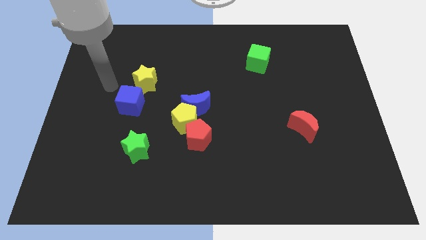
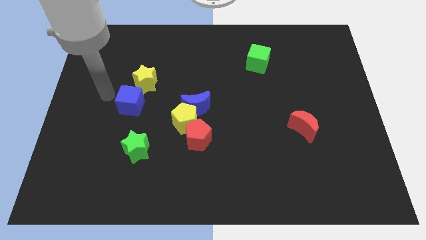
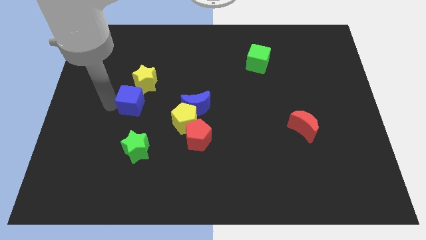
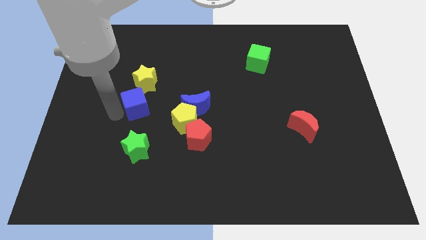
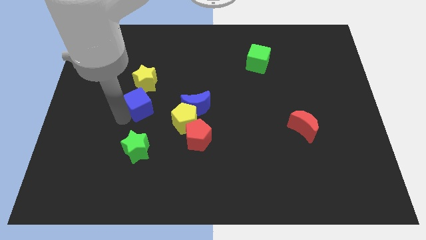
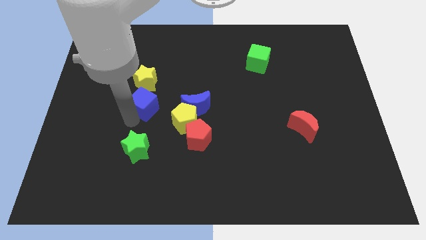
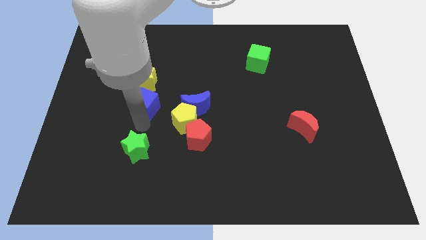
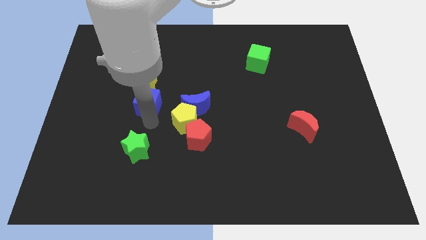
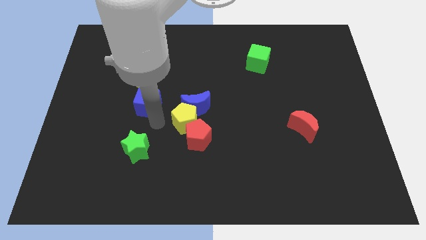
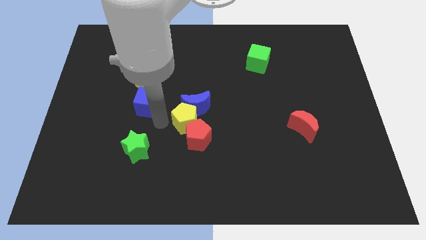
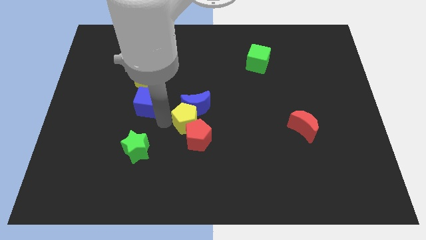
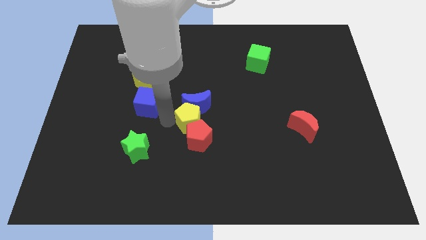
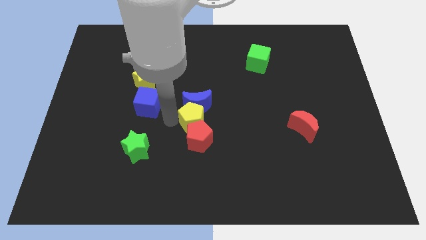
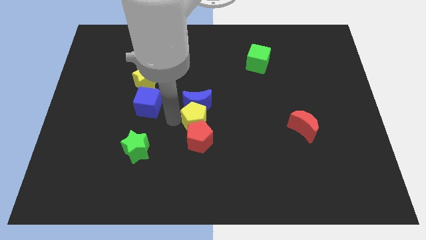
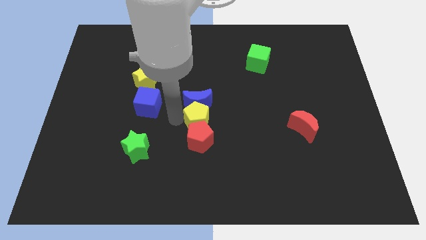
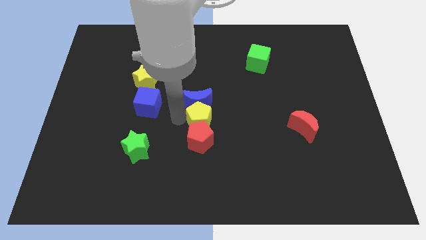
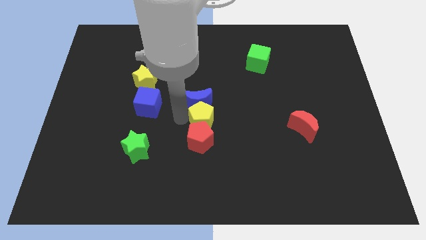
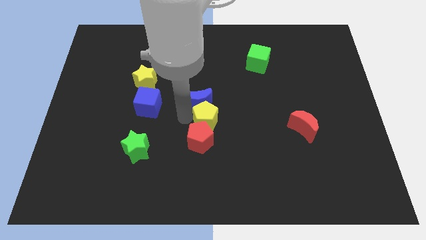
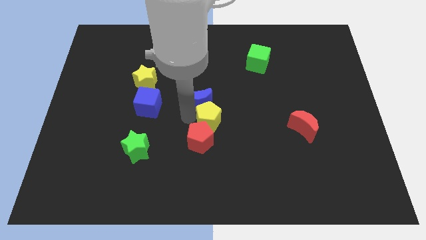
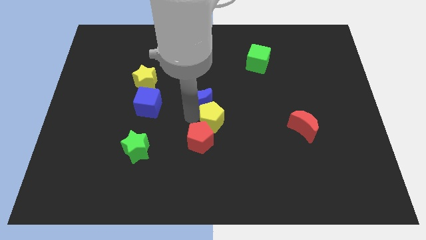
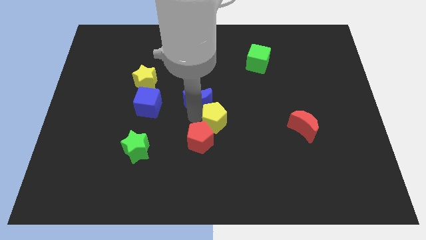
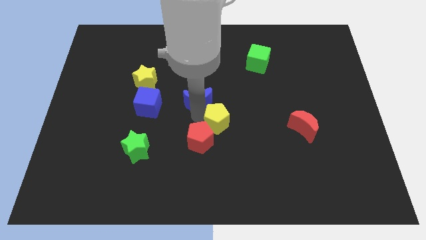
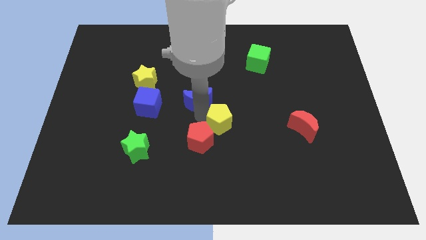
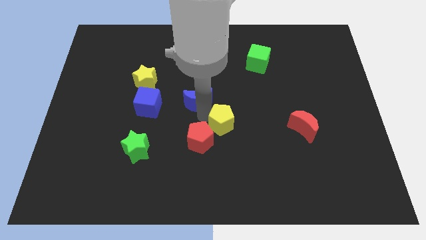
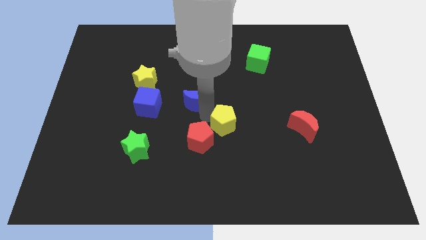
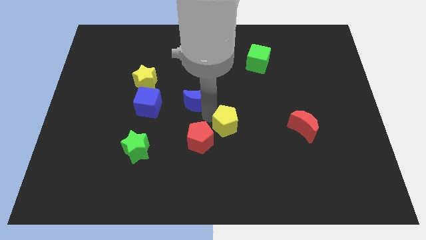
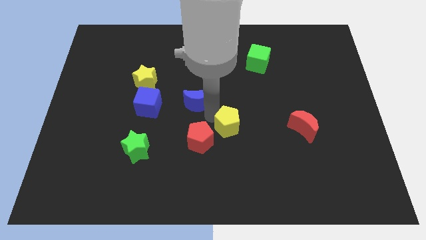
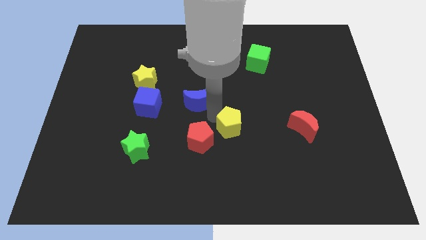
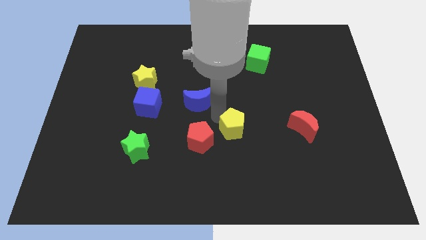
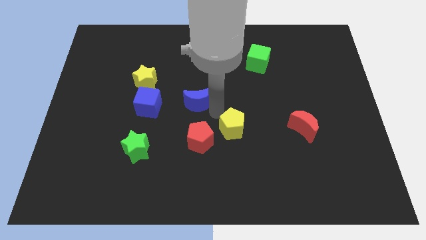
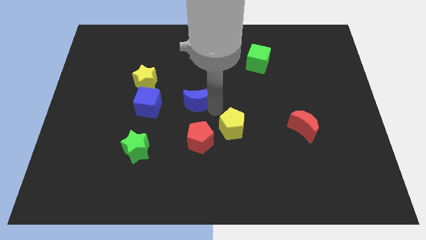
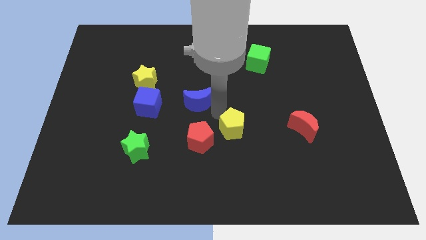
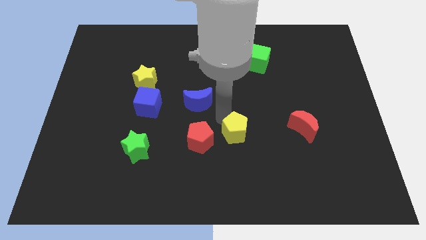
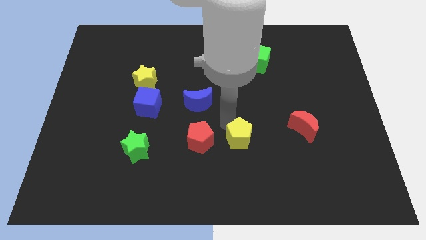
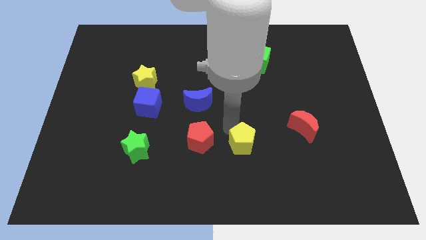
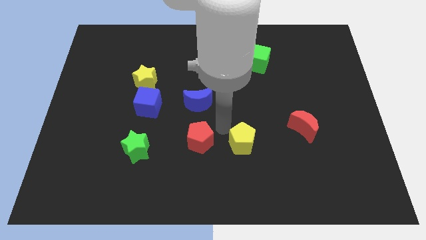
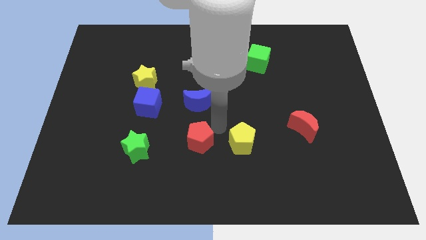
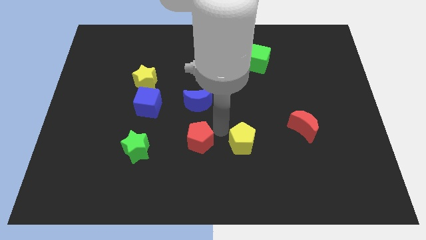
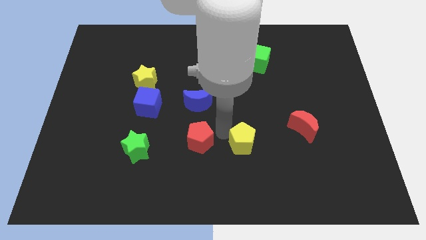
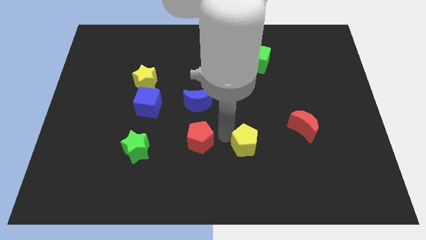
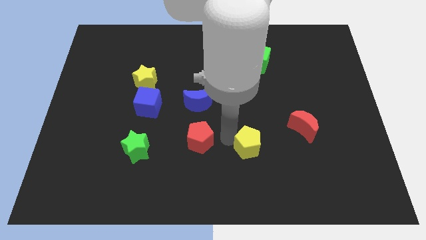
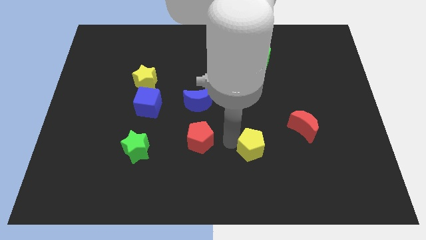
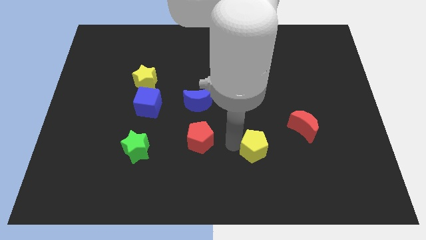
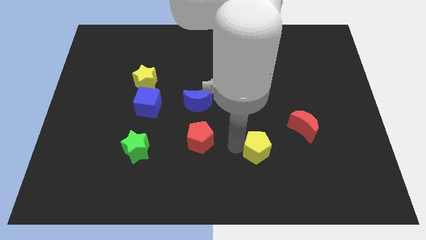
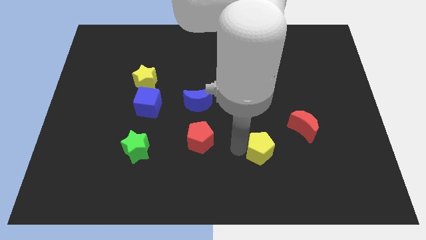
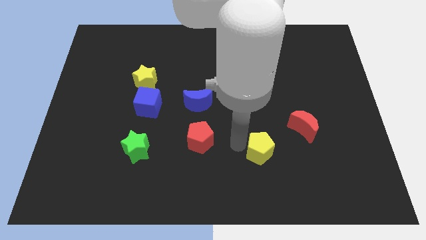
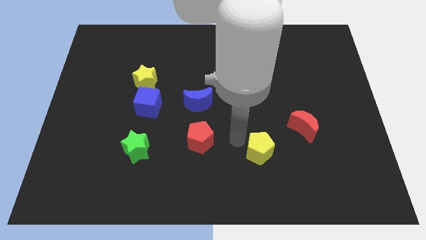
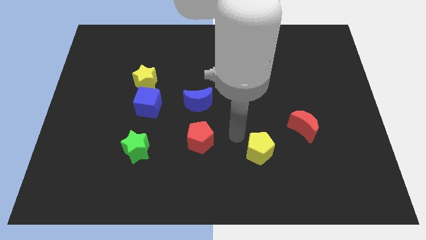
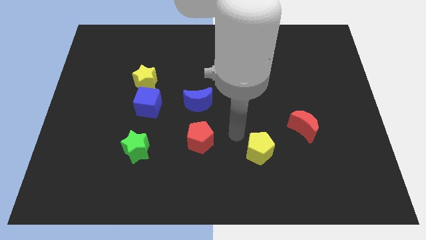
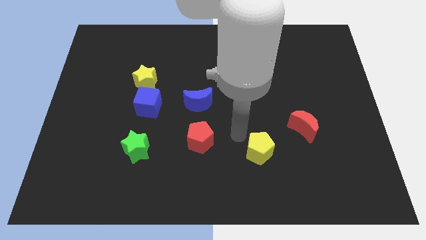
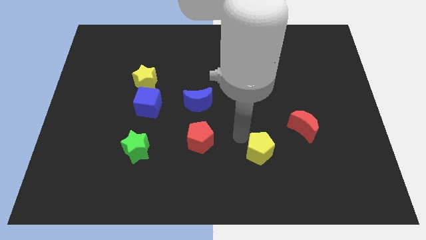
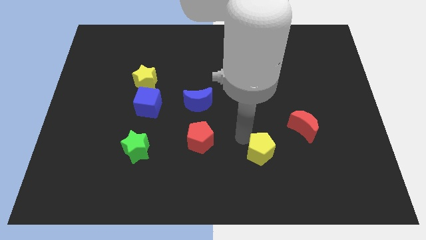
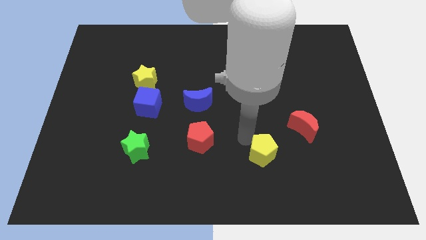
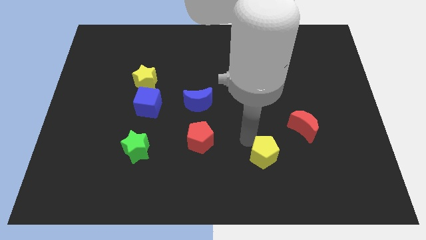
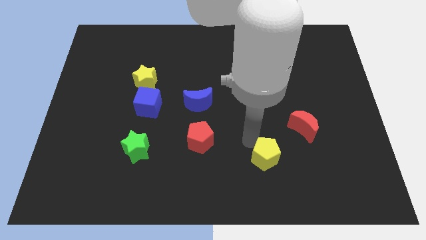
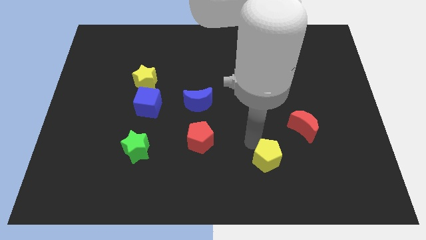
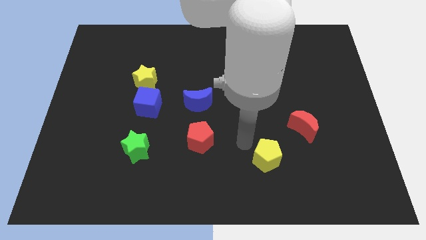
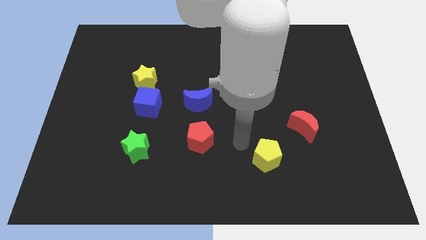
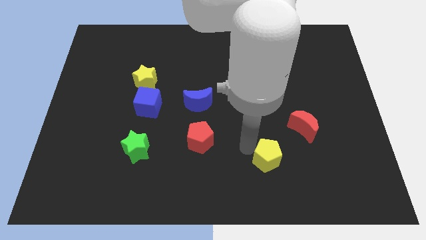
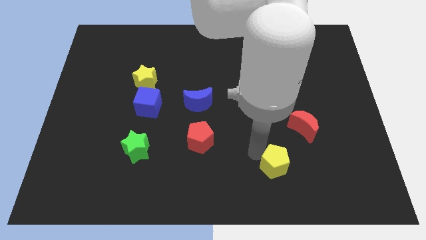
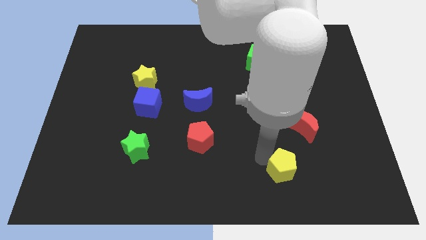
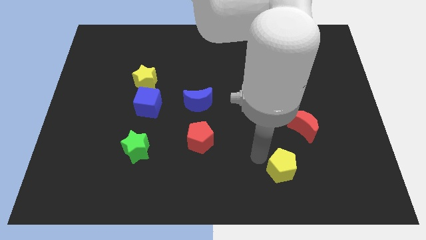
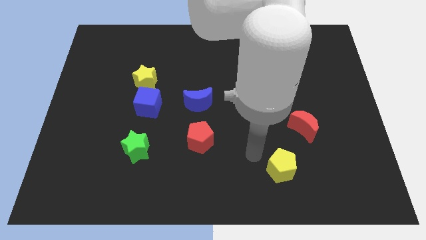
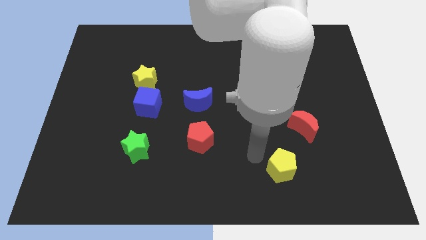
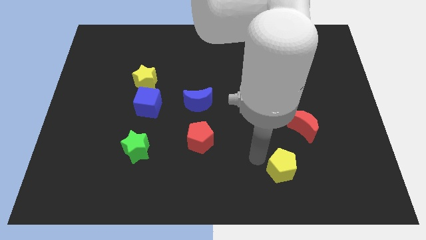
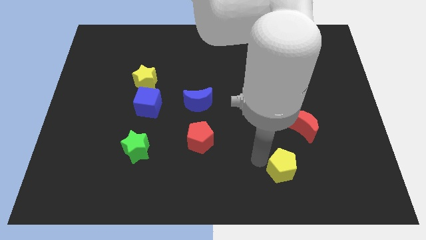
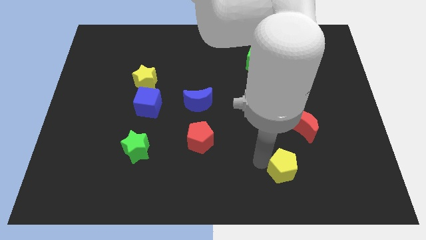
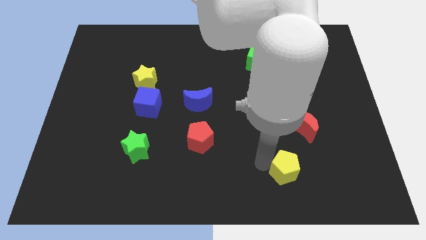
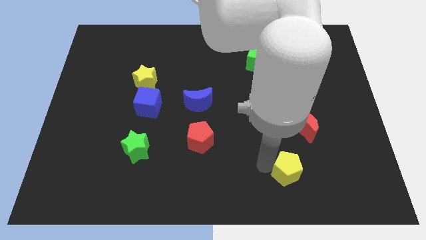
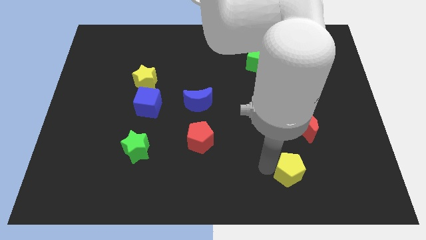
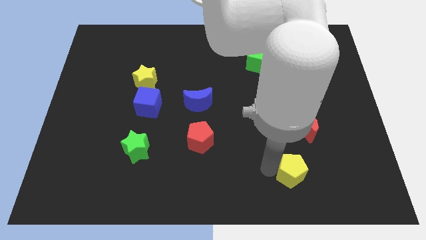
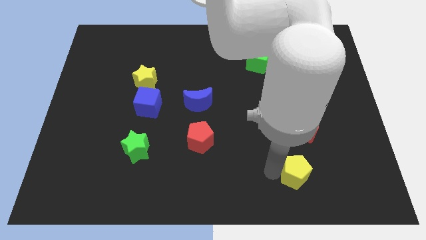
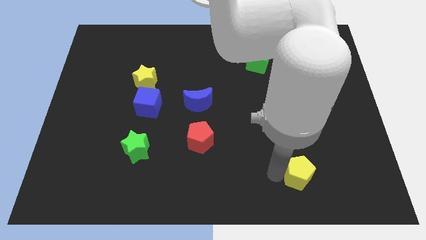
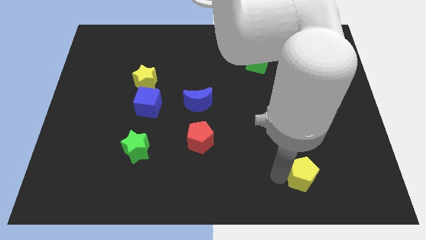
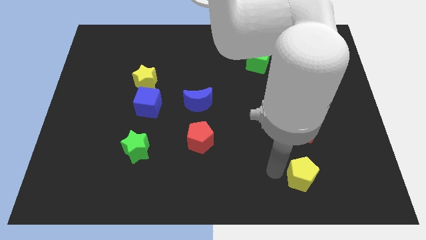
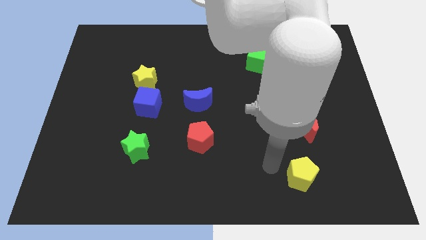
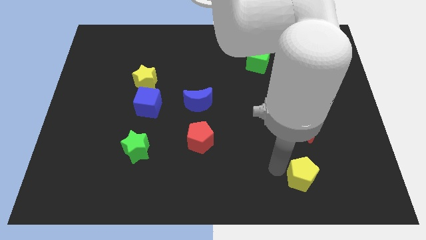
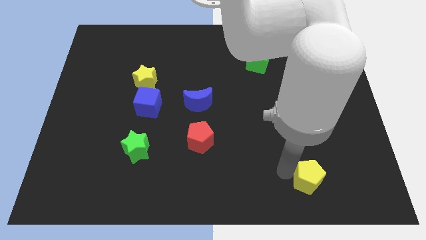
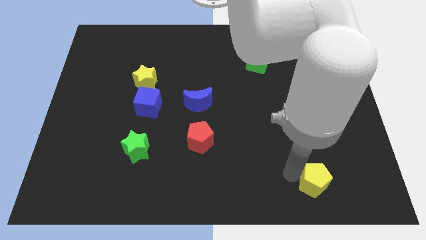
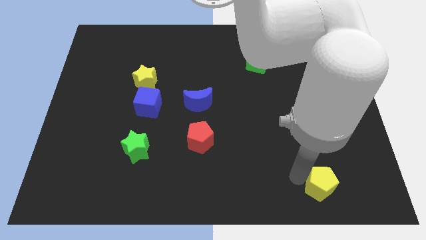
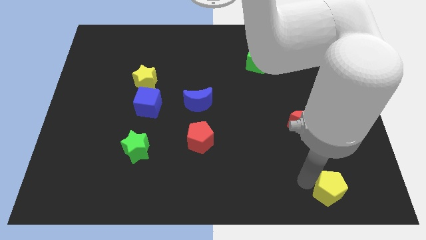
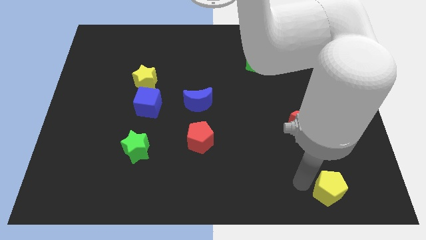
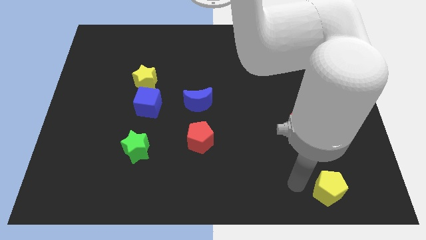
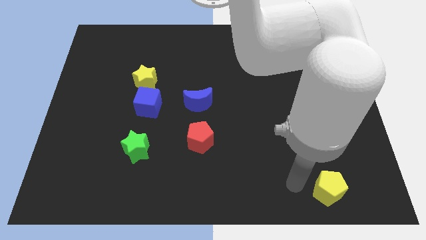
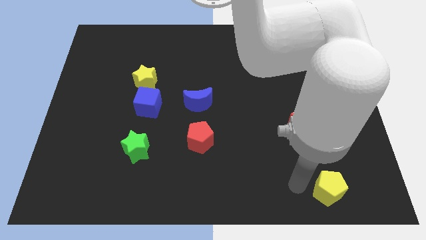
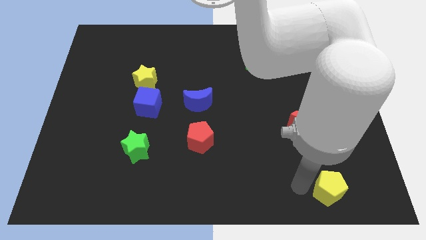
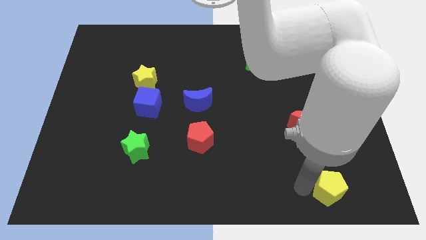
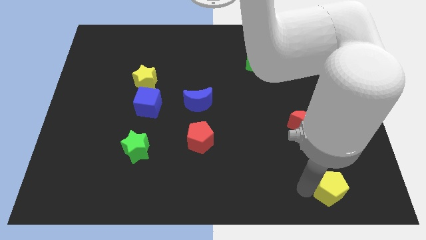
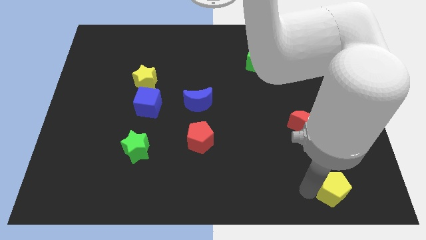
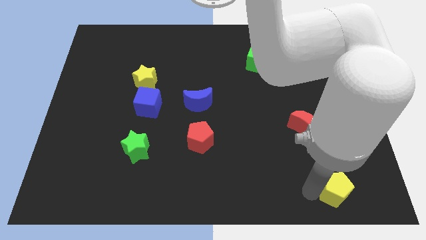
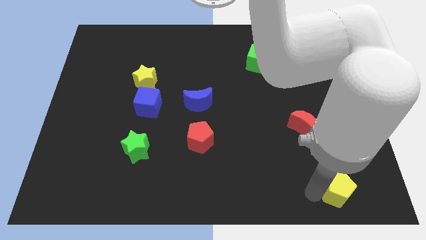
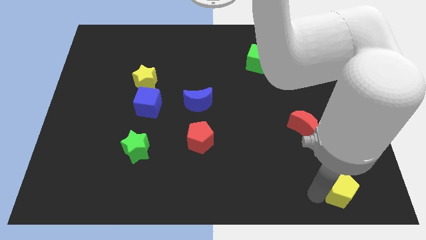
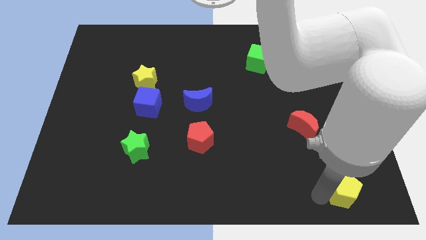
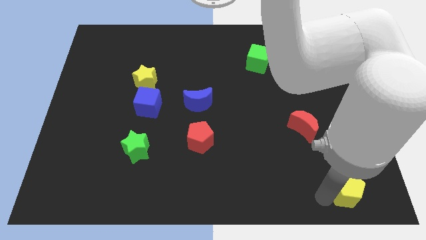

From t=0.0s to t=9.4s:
push the yellow pentagon to the bottom right
